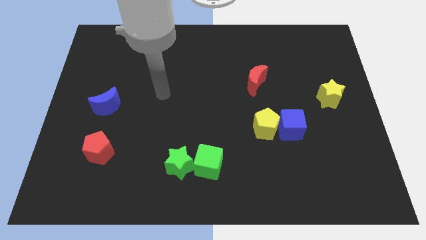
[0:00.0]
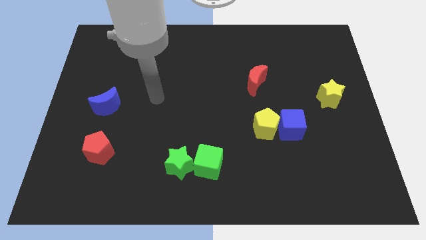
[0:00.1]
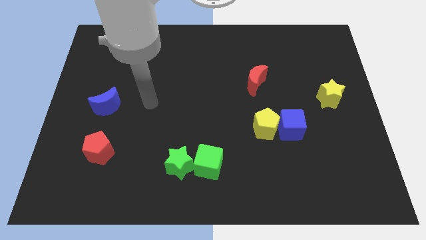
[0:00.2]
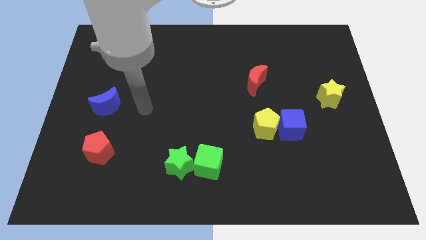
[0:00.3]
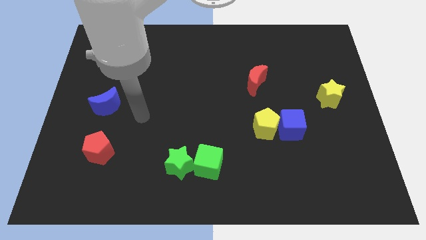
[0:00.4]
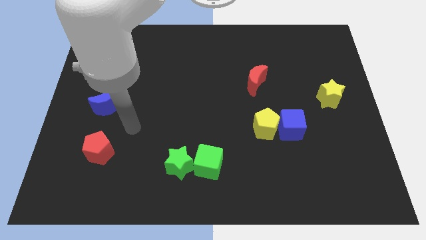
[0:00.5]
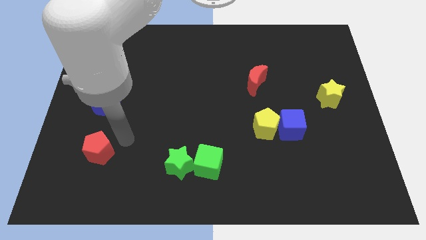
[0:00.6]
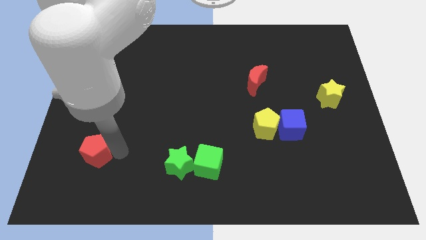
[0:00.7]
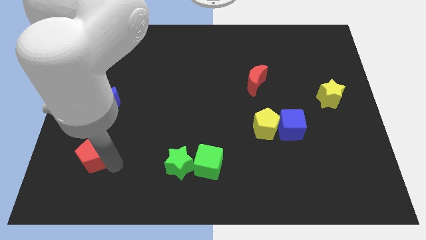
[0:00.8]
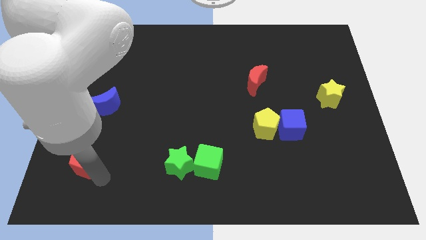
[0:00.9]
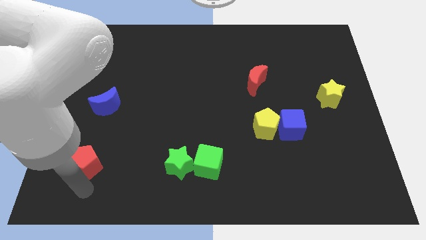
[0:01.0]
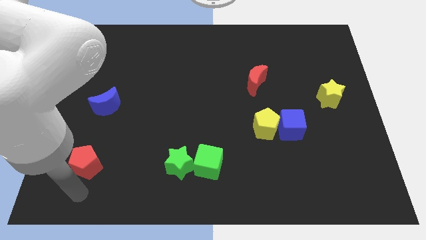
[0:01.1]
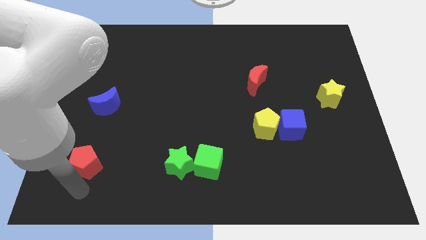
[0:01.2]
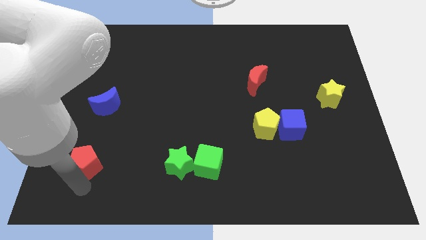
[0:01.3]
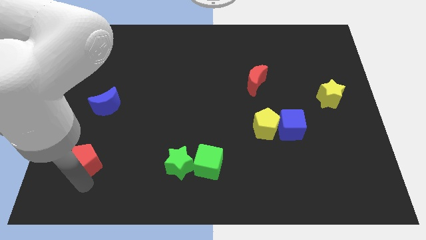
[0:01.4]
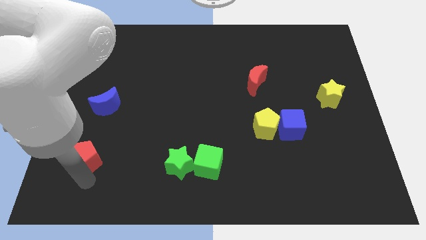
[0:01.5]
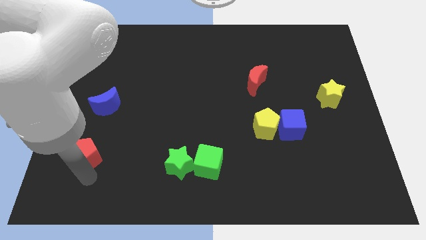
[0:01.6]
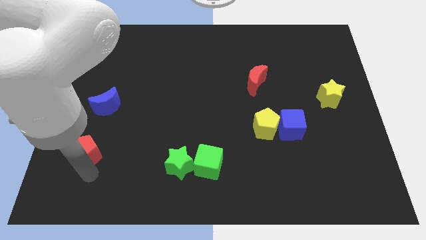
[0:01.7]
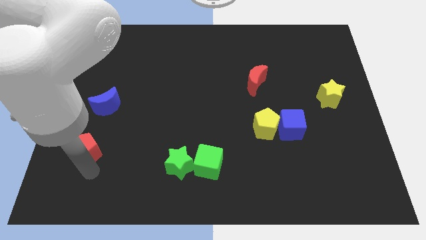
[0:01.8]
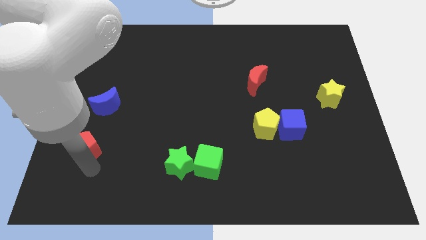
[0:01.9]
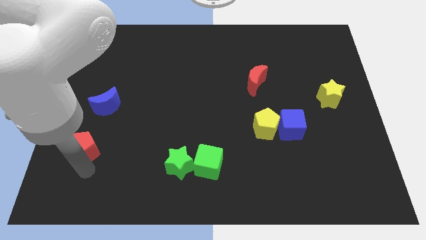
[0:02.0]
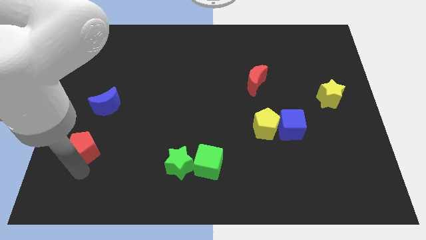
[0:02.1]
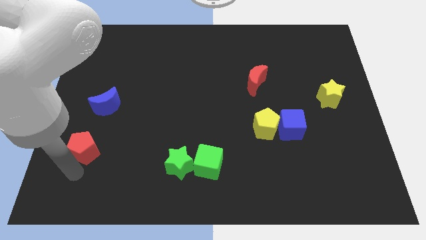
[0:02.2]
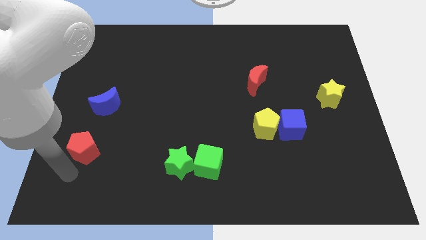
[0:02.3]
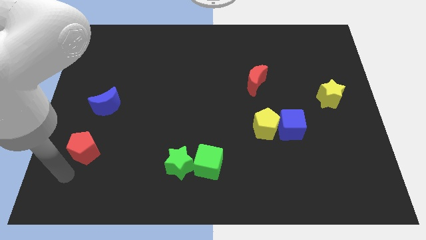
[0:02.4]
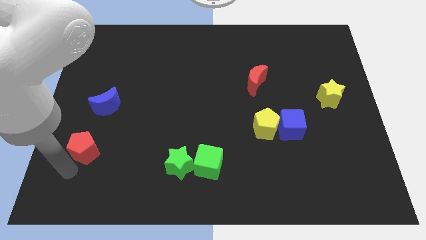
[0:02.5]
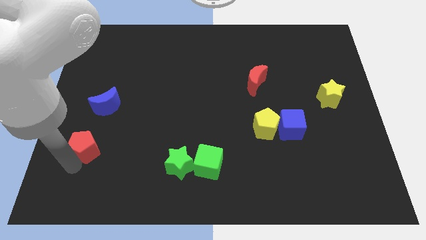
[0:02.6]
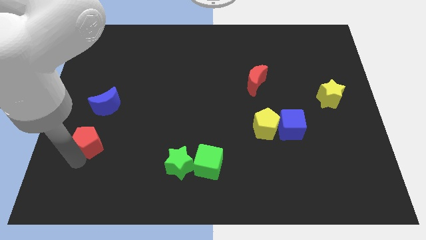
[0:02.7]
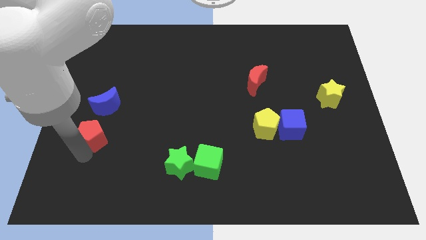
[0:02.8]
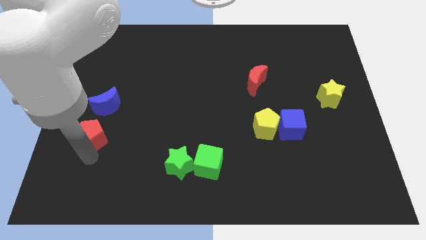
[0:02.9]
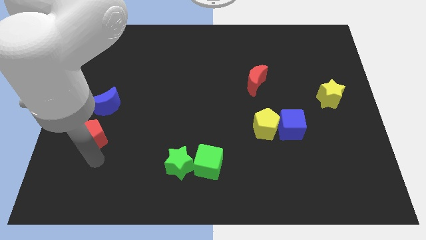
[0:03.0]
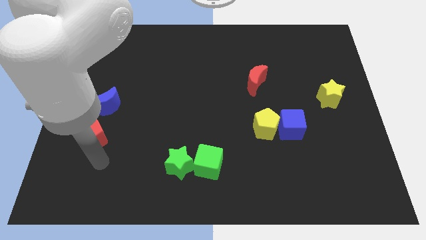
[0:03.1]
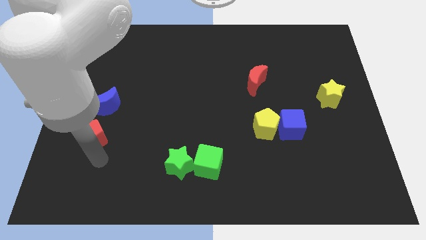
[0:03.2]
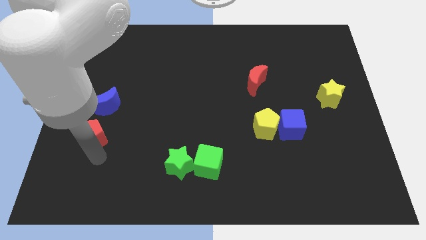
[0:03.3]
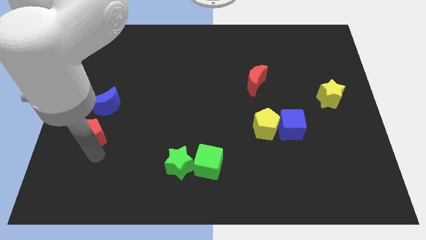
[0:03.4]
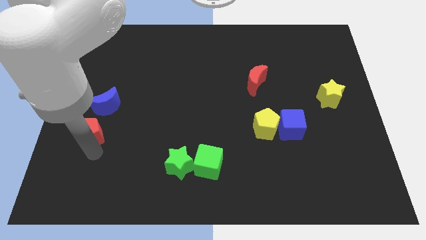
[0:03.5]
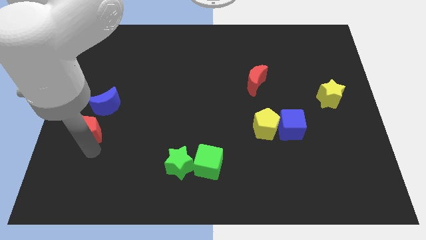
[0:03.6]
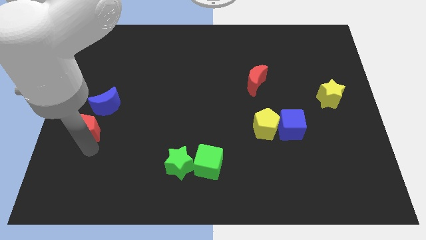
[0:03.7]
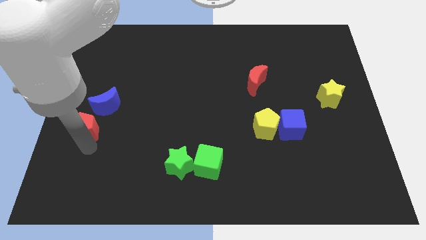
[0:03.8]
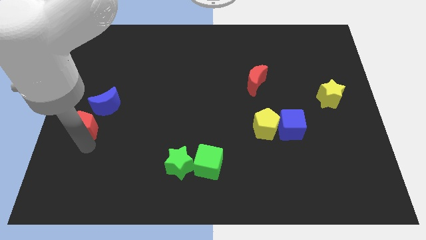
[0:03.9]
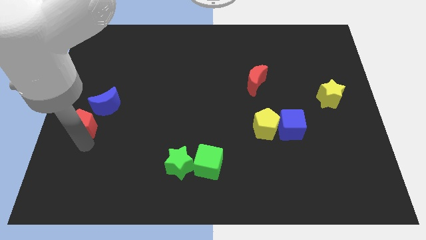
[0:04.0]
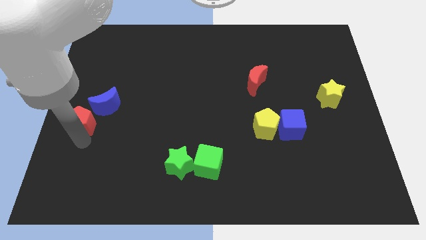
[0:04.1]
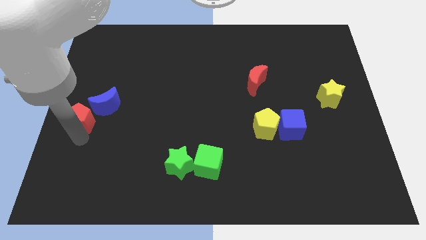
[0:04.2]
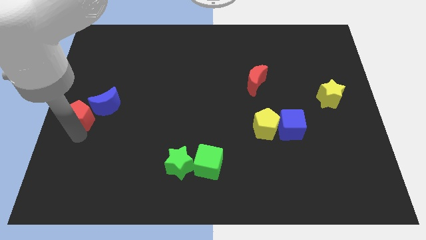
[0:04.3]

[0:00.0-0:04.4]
slightly push the red pentagon upwards

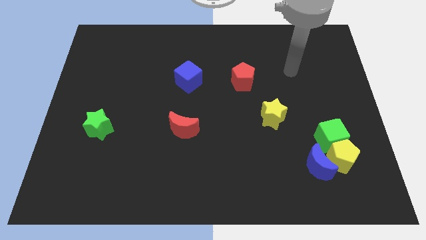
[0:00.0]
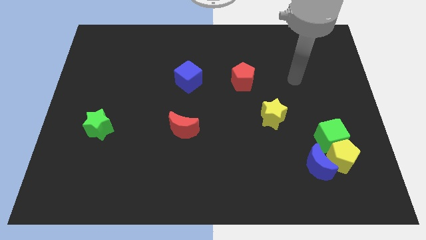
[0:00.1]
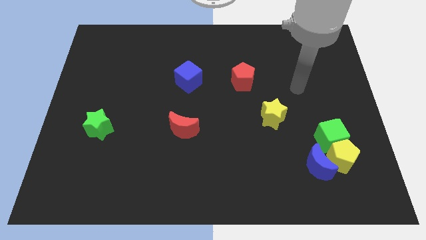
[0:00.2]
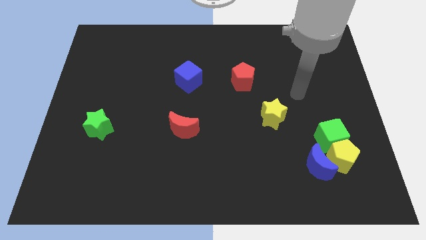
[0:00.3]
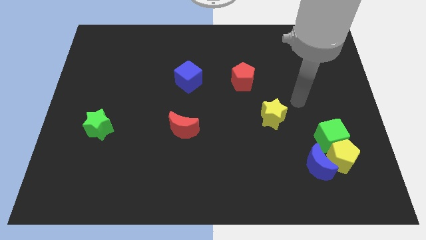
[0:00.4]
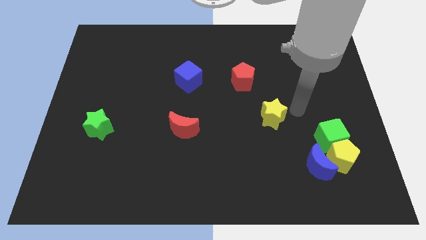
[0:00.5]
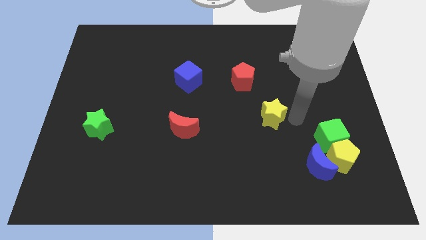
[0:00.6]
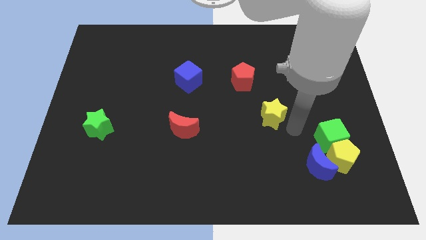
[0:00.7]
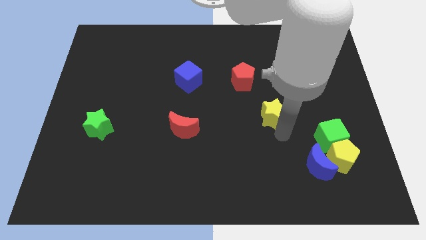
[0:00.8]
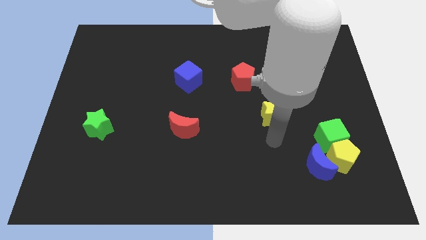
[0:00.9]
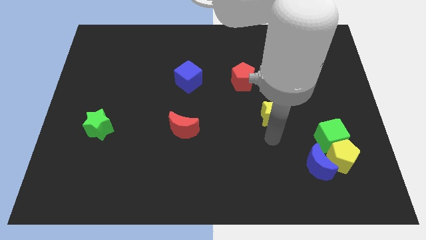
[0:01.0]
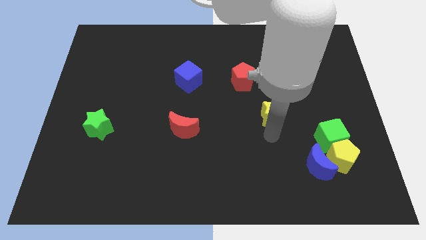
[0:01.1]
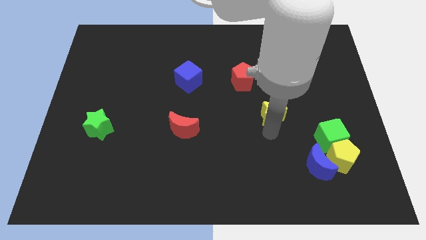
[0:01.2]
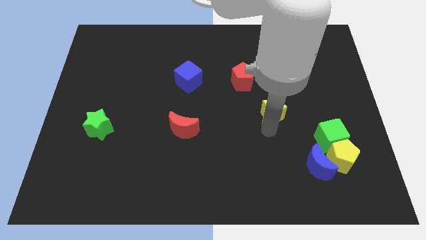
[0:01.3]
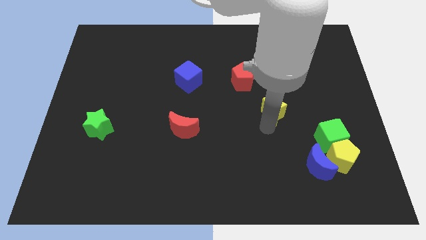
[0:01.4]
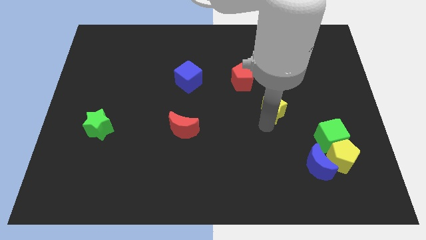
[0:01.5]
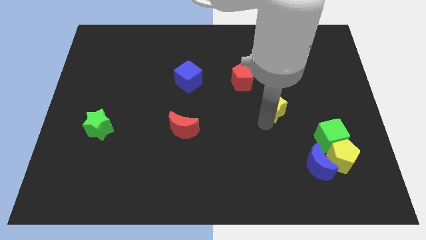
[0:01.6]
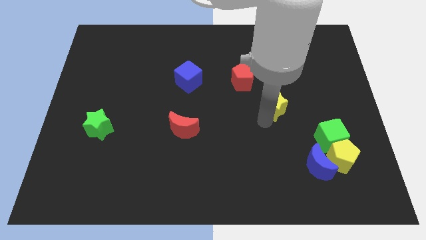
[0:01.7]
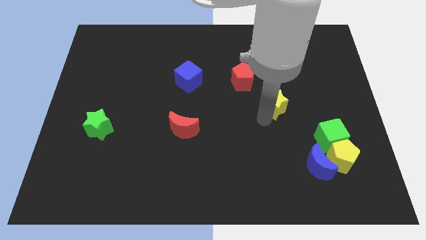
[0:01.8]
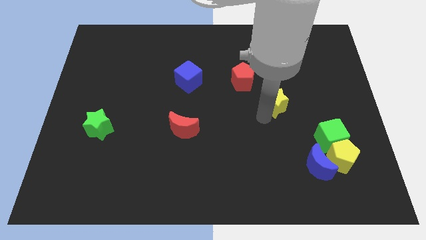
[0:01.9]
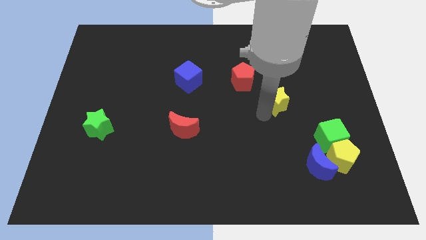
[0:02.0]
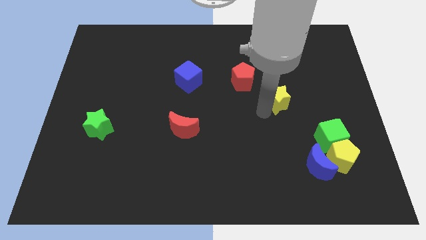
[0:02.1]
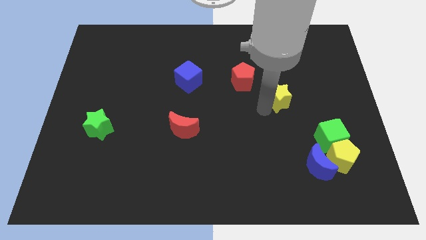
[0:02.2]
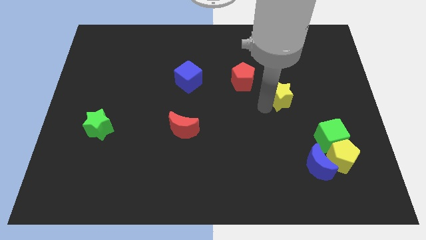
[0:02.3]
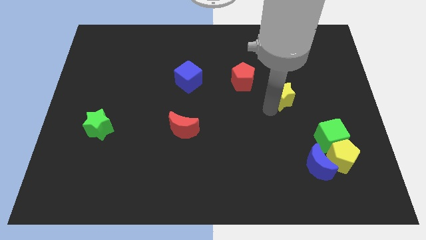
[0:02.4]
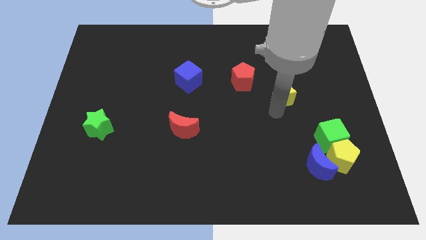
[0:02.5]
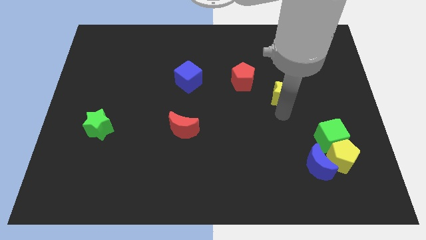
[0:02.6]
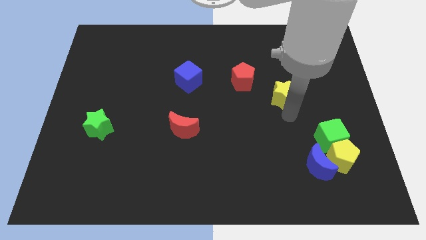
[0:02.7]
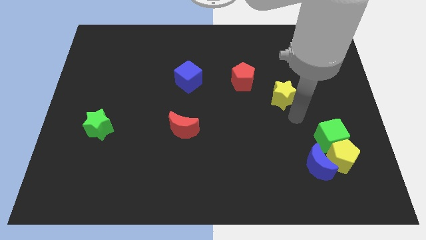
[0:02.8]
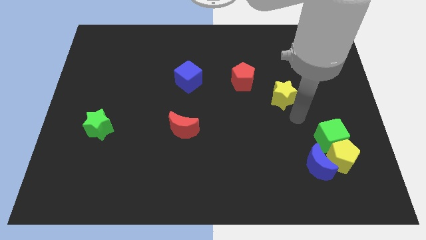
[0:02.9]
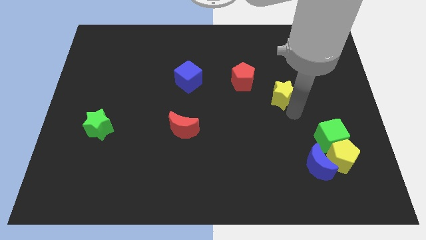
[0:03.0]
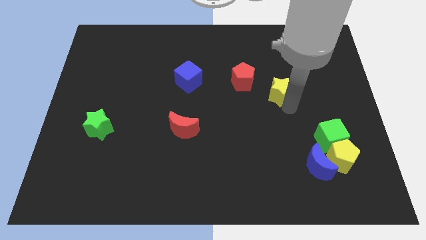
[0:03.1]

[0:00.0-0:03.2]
slide the yellow star a little bit upwards

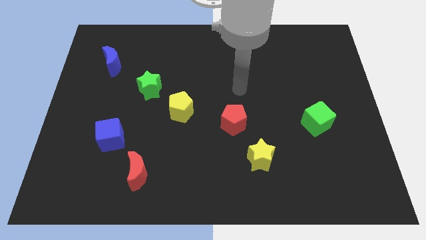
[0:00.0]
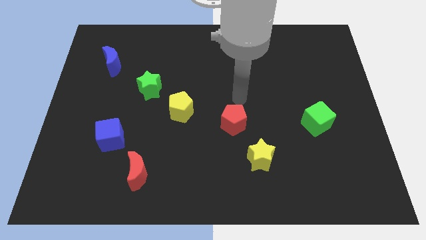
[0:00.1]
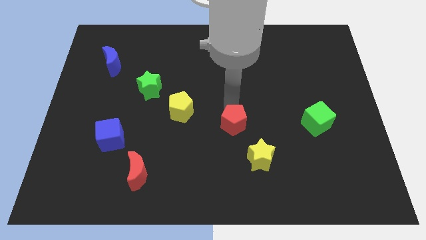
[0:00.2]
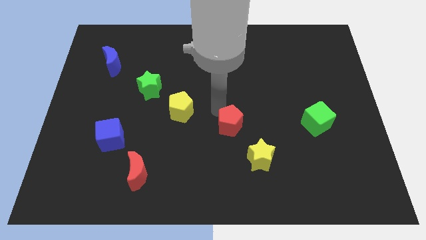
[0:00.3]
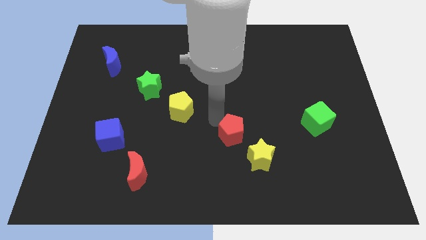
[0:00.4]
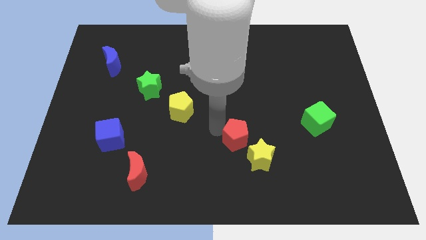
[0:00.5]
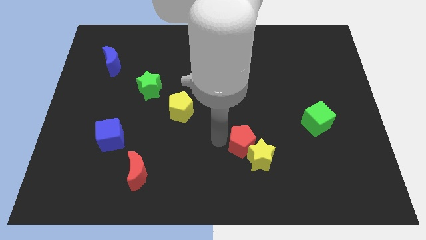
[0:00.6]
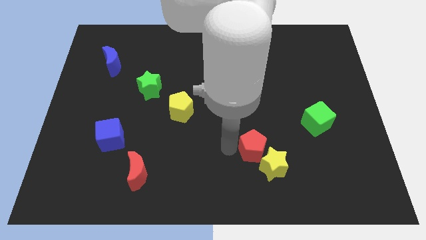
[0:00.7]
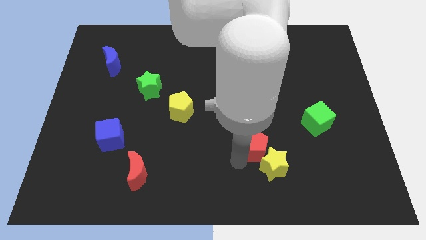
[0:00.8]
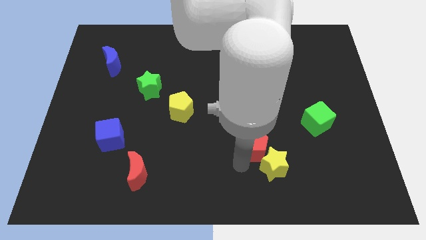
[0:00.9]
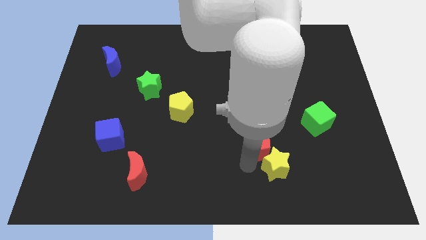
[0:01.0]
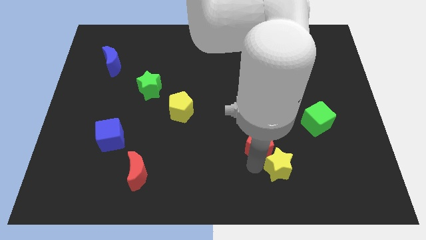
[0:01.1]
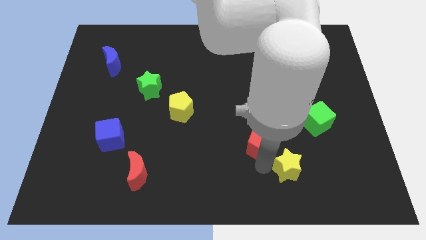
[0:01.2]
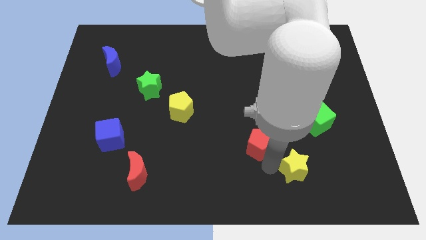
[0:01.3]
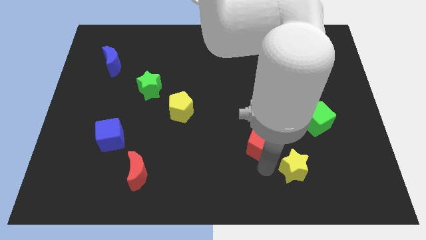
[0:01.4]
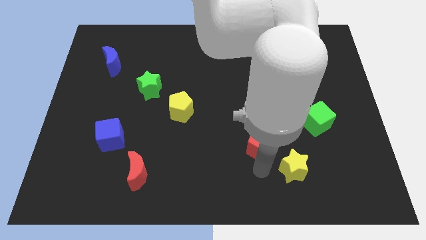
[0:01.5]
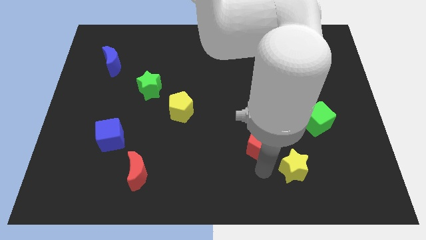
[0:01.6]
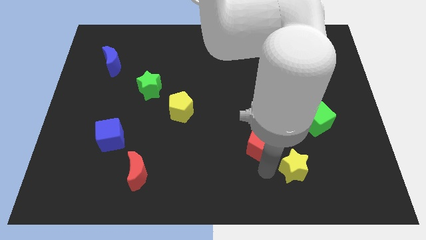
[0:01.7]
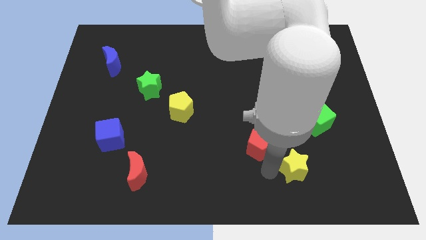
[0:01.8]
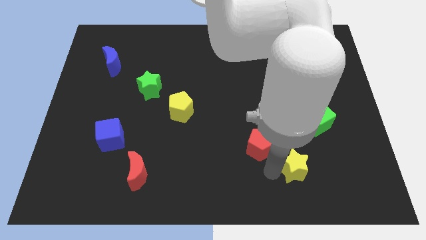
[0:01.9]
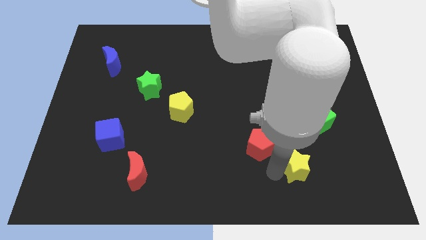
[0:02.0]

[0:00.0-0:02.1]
slide the yellow star to the right somewhat
